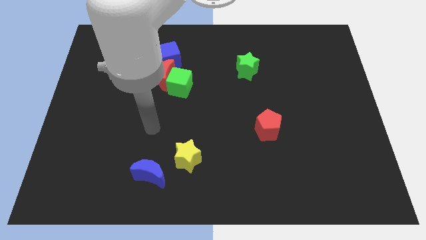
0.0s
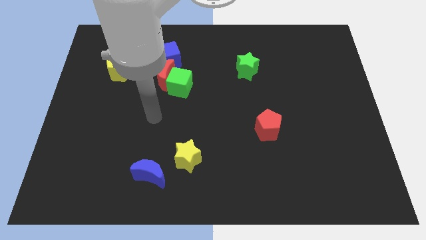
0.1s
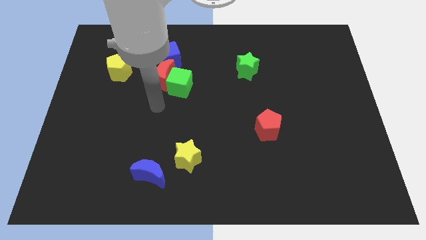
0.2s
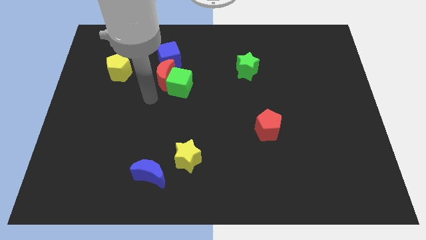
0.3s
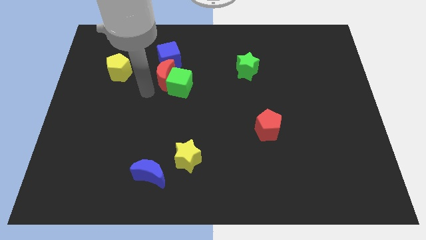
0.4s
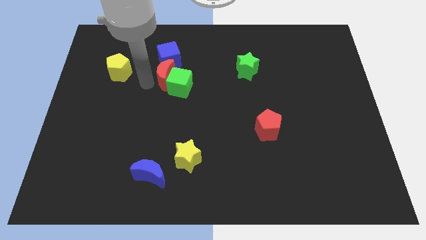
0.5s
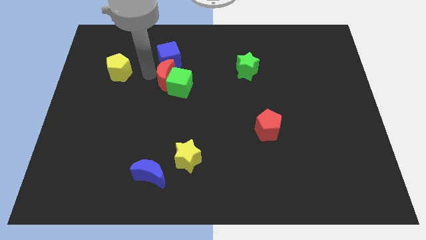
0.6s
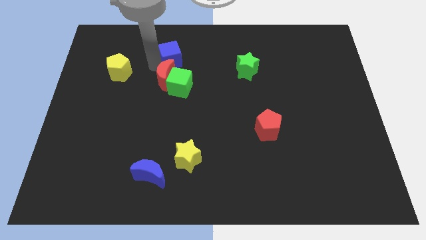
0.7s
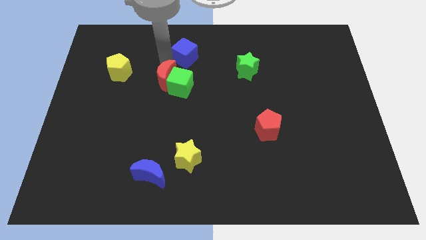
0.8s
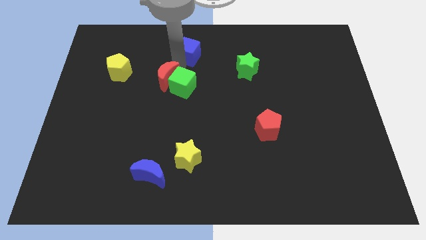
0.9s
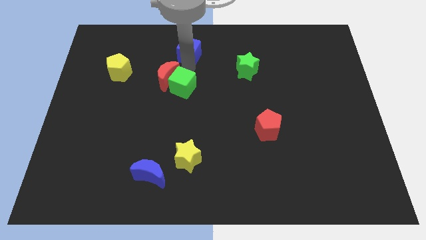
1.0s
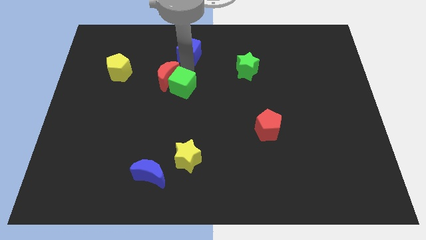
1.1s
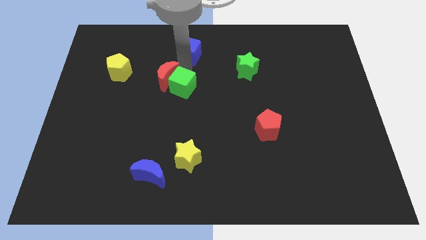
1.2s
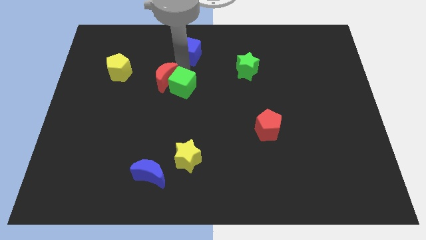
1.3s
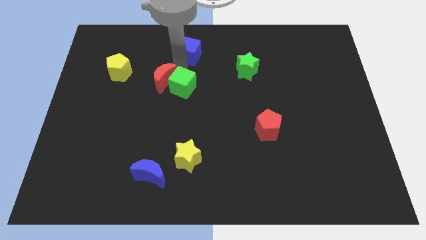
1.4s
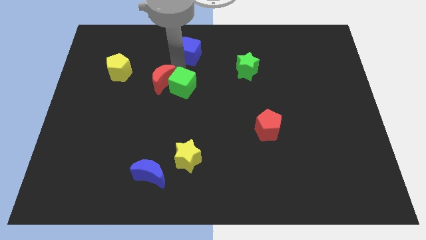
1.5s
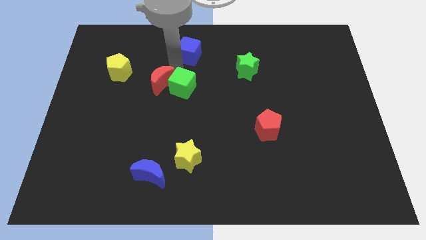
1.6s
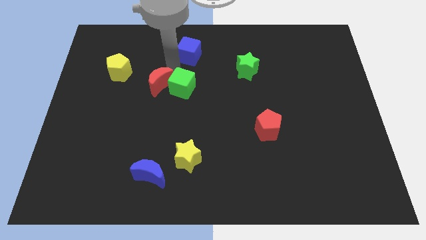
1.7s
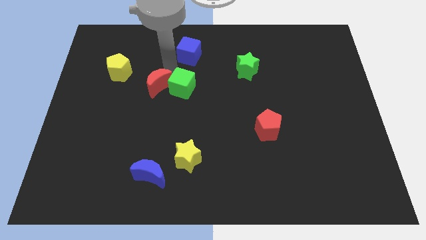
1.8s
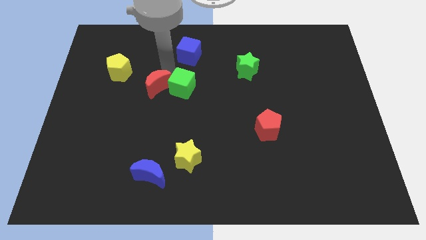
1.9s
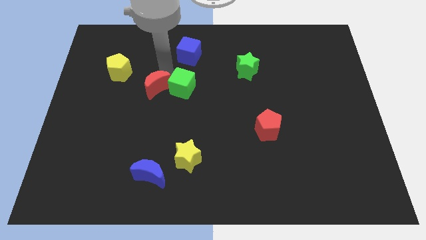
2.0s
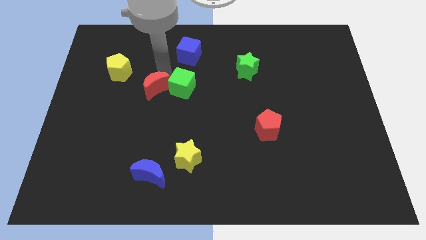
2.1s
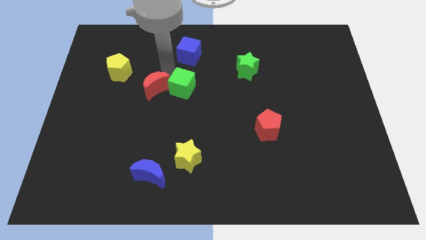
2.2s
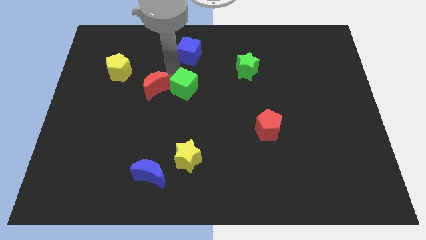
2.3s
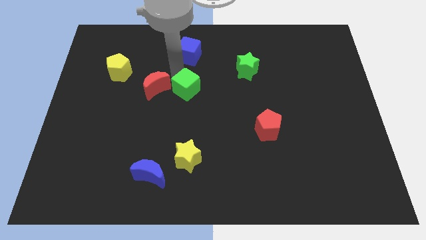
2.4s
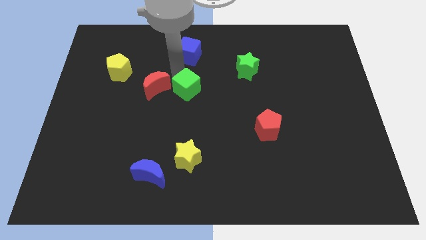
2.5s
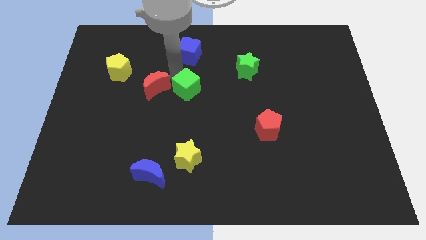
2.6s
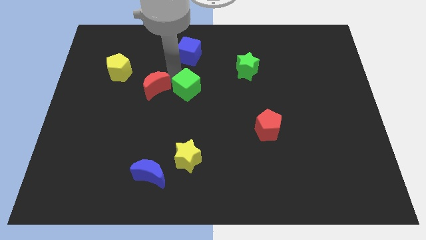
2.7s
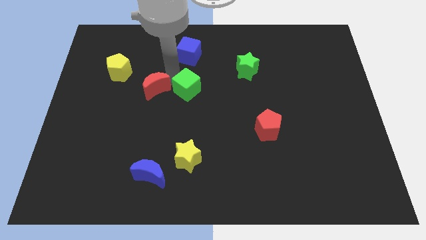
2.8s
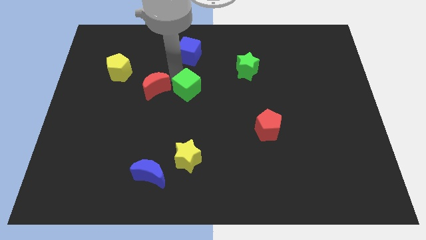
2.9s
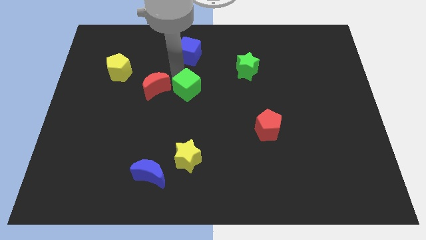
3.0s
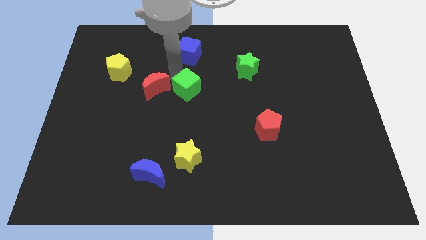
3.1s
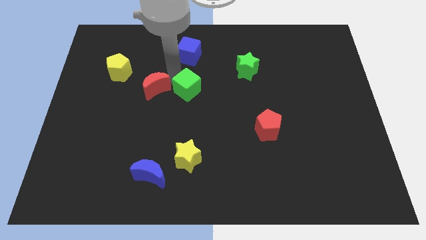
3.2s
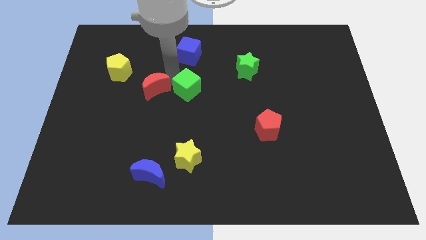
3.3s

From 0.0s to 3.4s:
move the red moon away from the green cube and blue cube

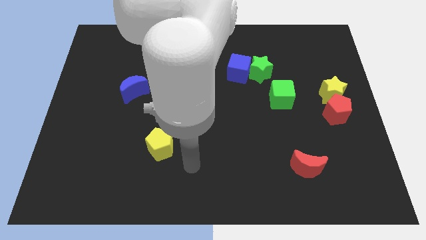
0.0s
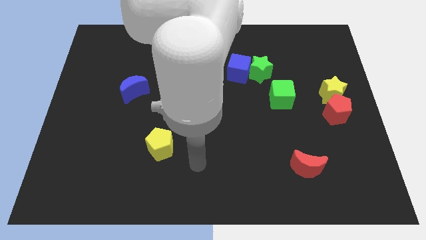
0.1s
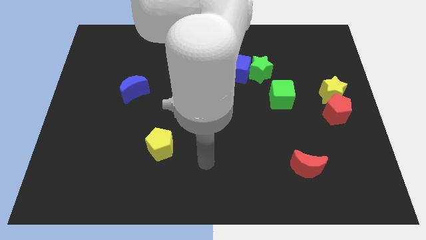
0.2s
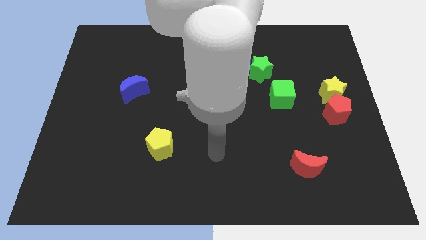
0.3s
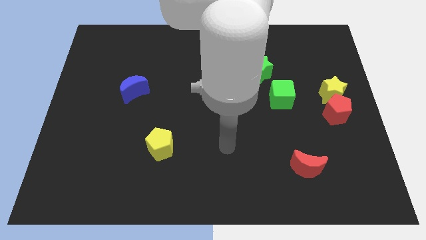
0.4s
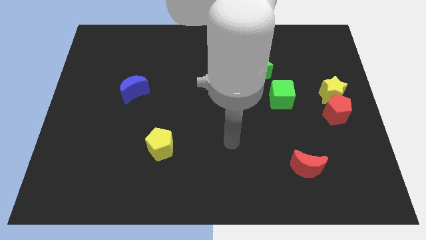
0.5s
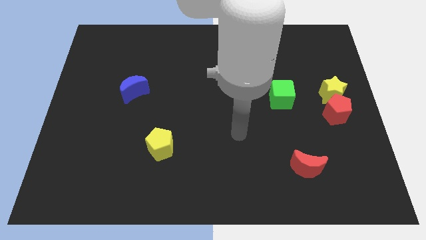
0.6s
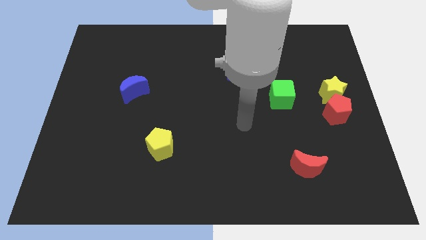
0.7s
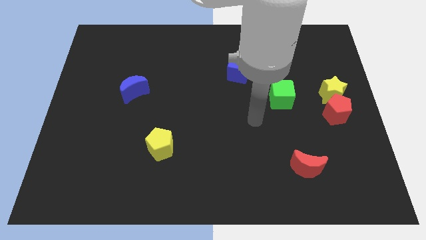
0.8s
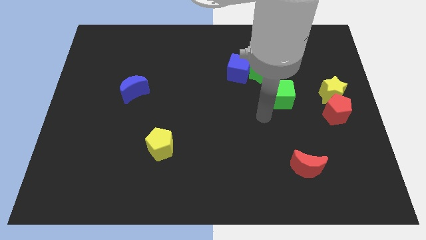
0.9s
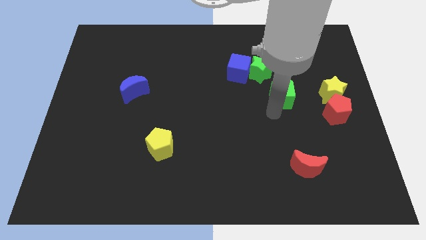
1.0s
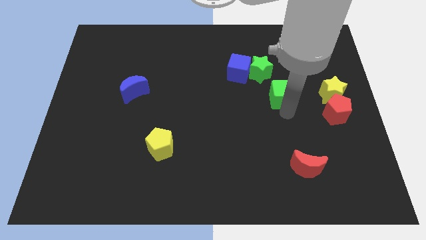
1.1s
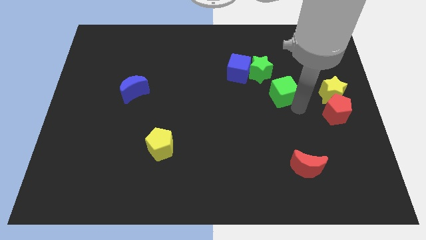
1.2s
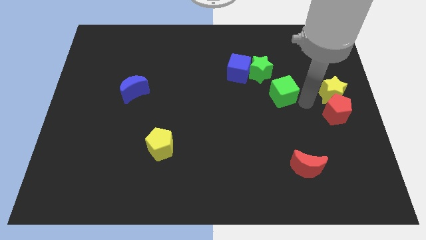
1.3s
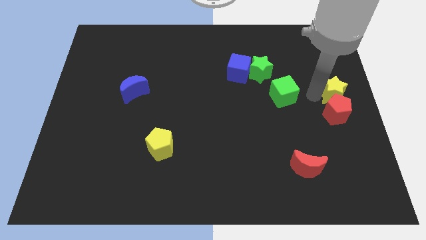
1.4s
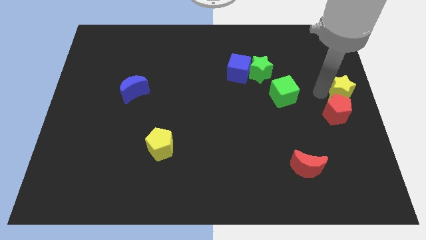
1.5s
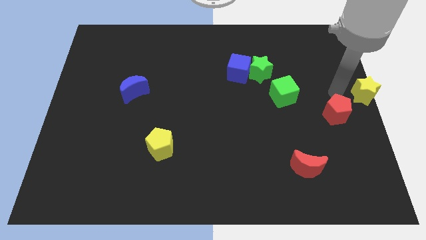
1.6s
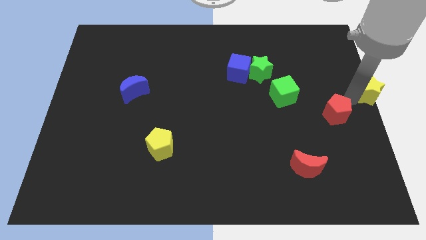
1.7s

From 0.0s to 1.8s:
move the red pentagon away from the yellow star

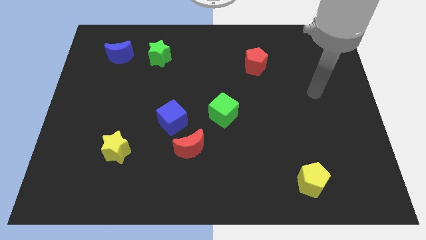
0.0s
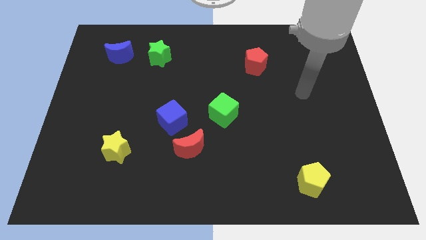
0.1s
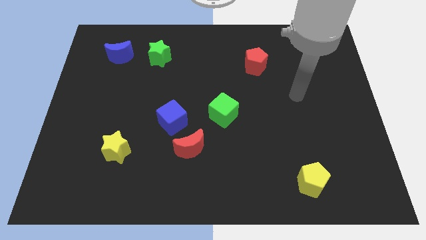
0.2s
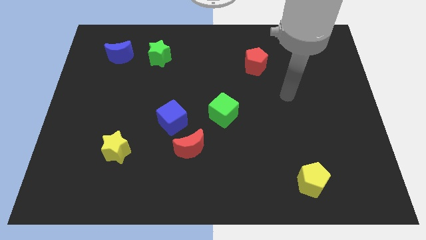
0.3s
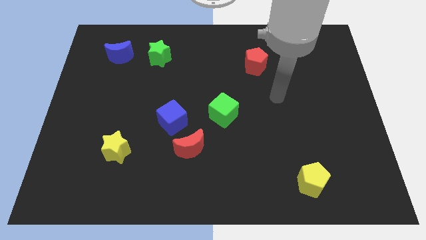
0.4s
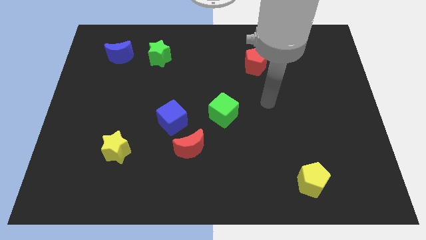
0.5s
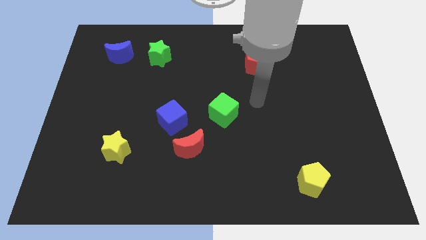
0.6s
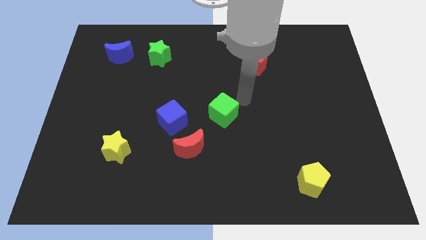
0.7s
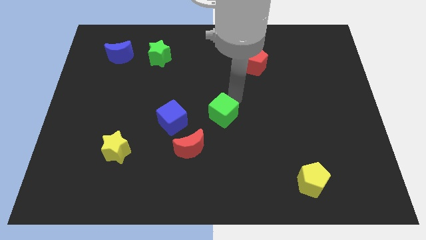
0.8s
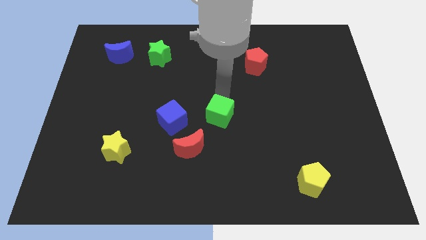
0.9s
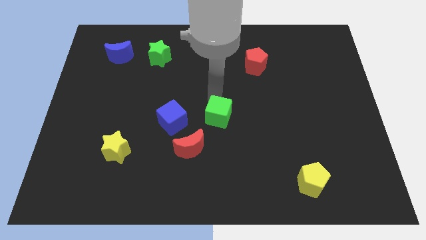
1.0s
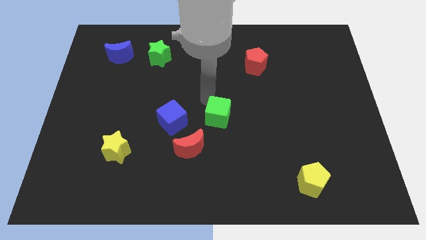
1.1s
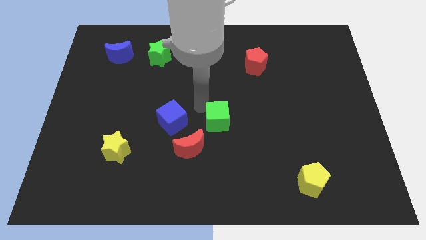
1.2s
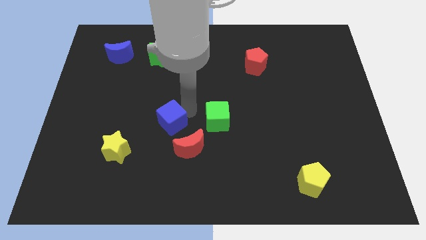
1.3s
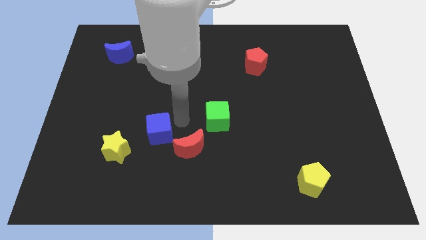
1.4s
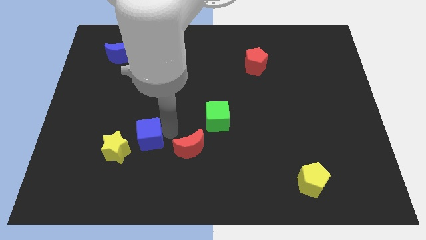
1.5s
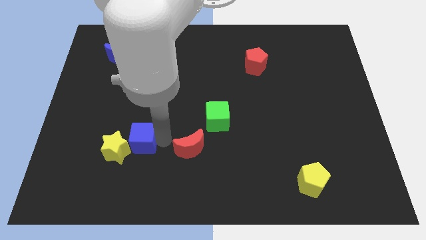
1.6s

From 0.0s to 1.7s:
move the red moon away from the blue cube

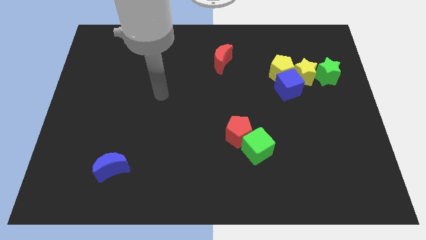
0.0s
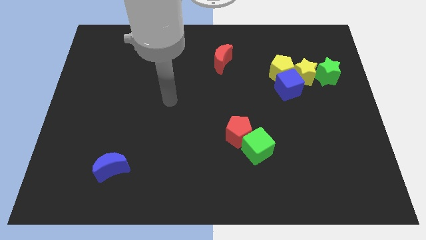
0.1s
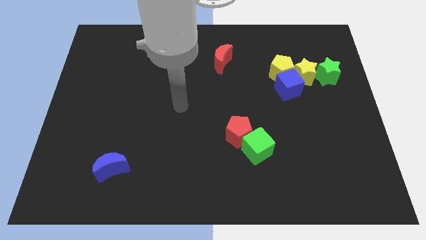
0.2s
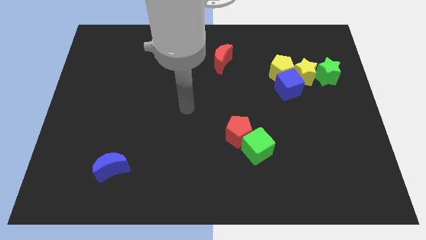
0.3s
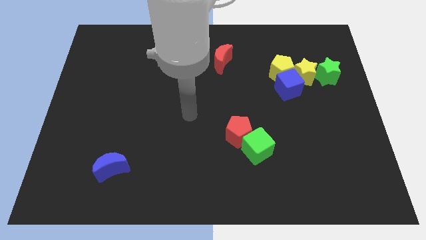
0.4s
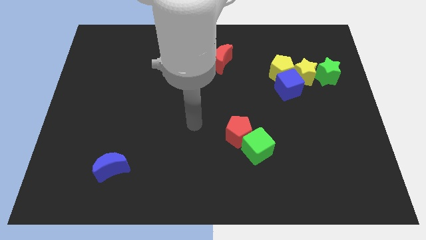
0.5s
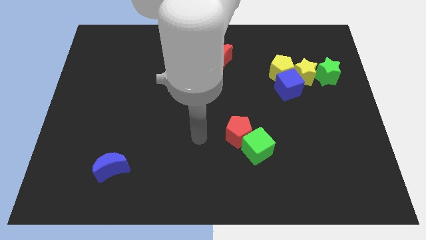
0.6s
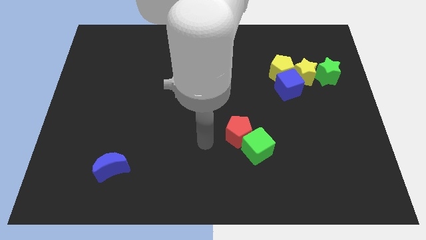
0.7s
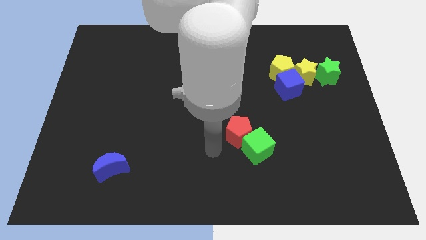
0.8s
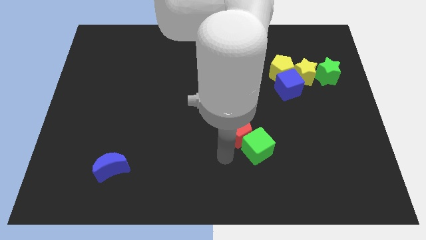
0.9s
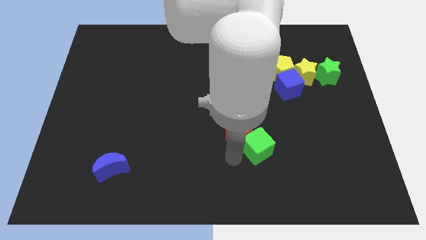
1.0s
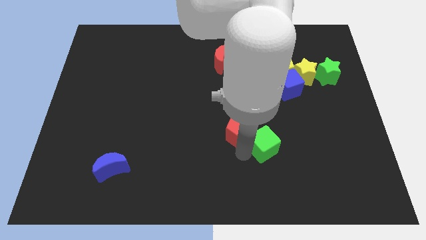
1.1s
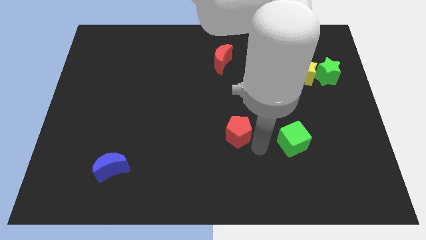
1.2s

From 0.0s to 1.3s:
move the red pentagon away from the green cube

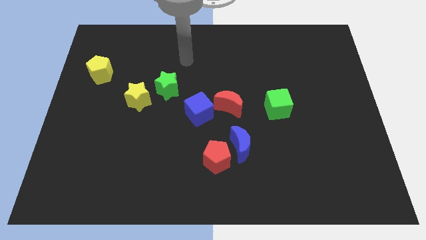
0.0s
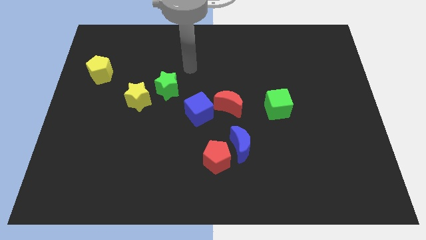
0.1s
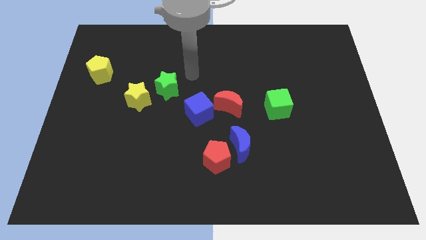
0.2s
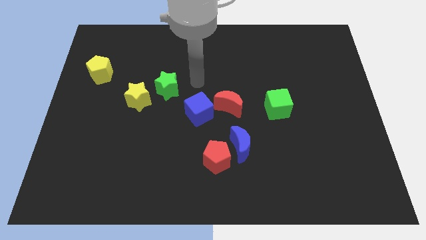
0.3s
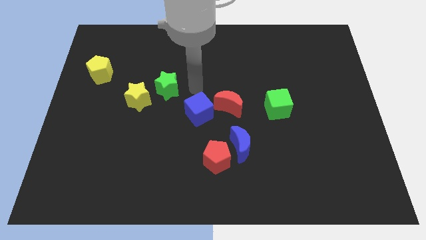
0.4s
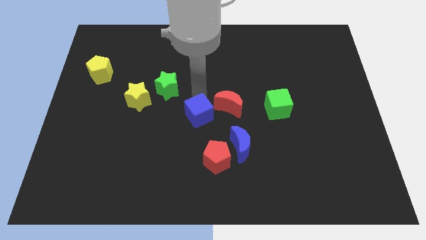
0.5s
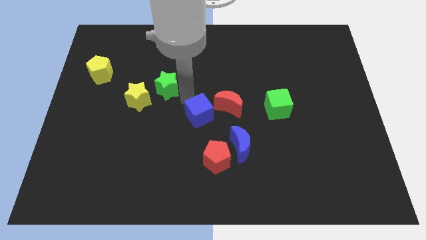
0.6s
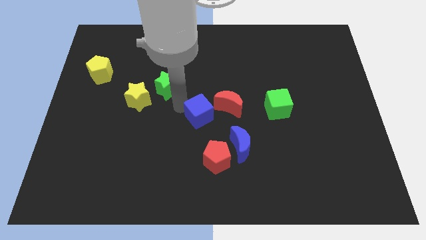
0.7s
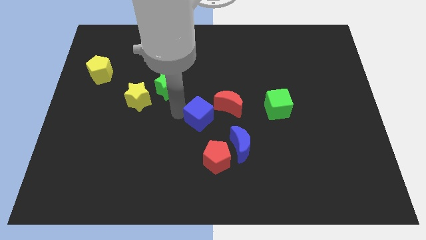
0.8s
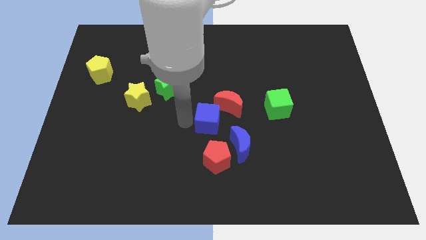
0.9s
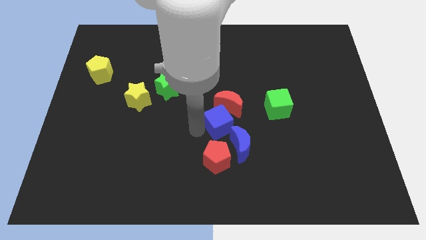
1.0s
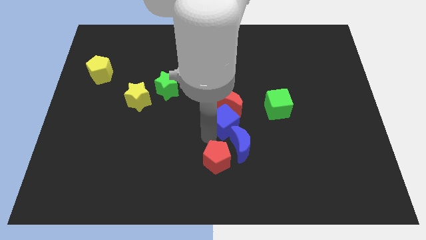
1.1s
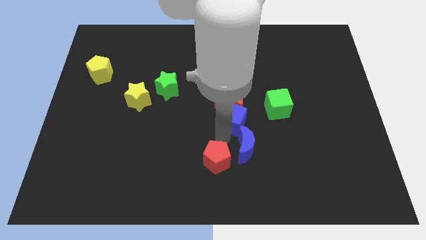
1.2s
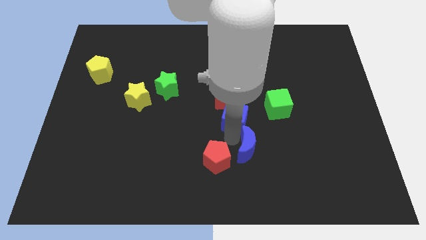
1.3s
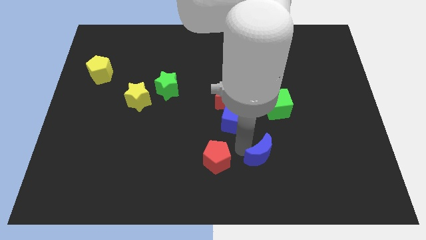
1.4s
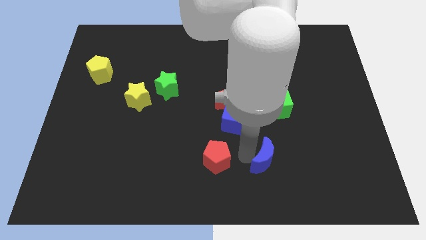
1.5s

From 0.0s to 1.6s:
separate the red pentagon from the blue moon
